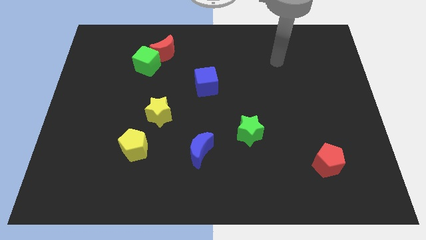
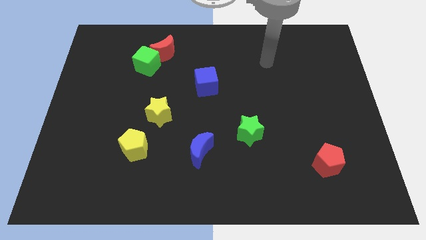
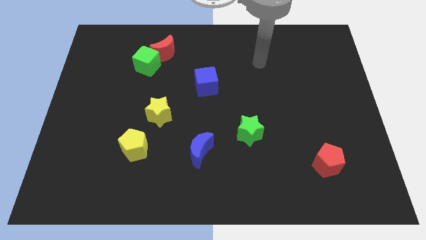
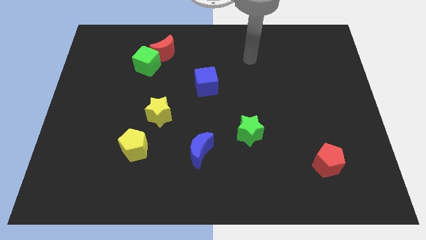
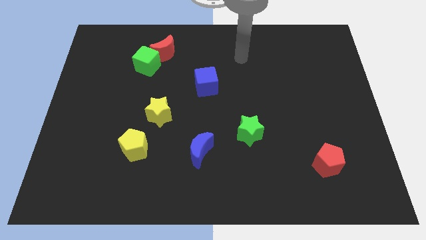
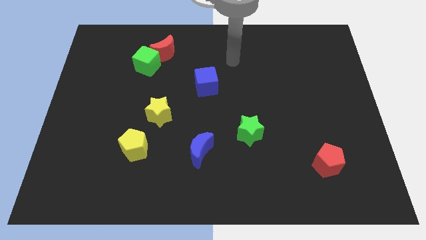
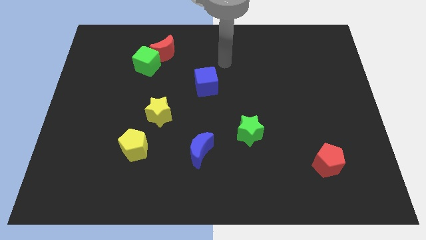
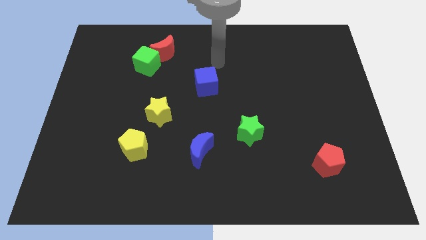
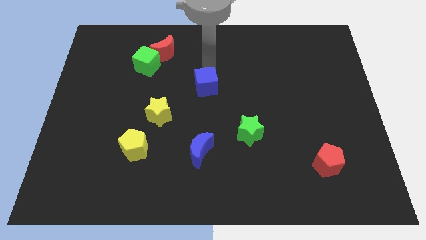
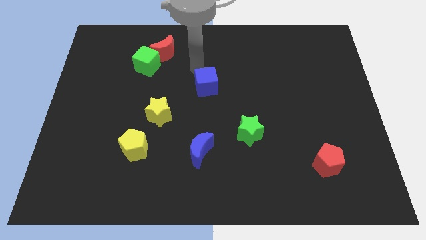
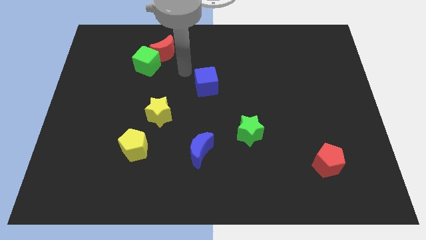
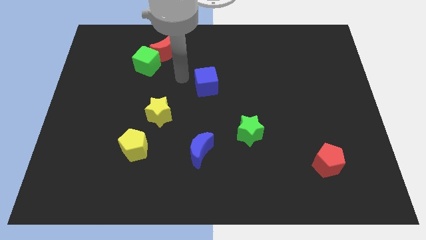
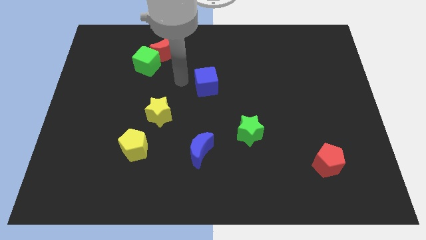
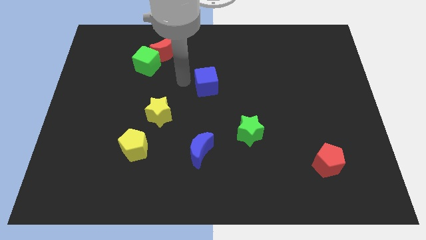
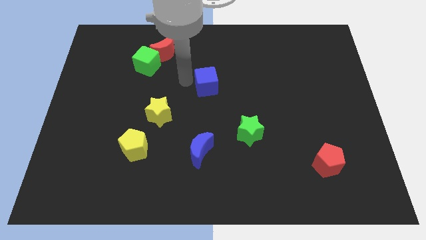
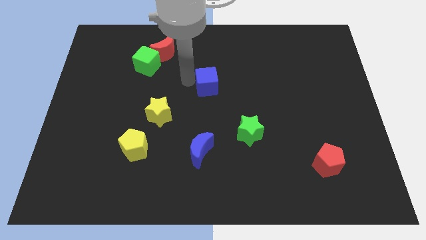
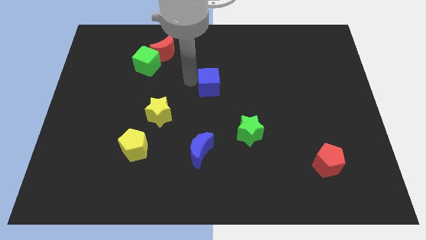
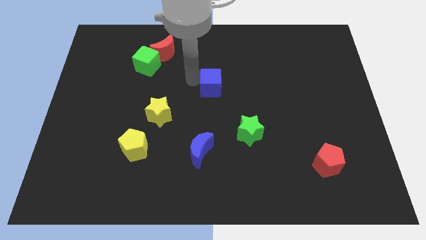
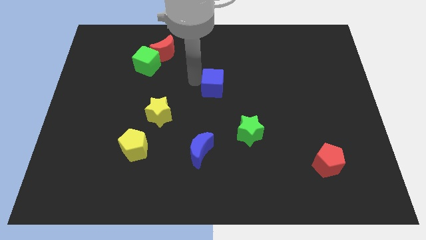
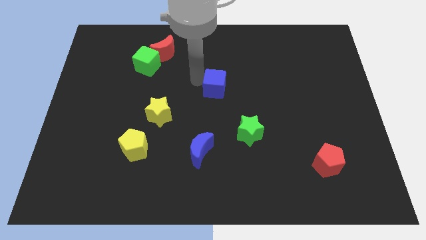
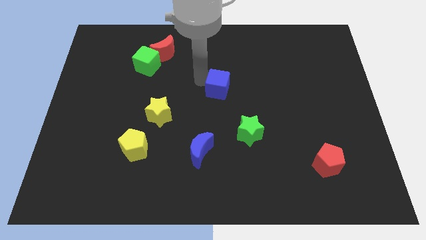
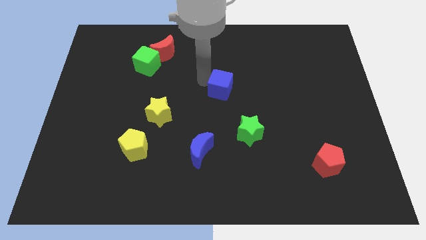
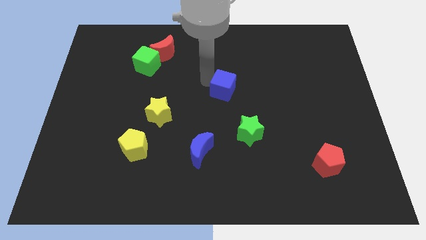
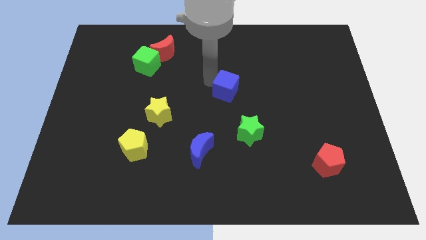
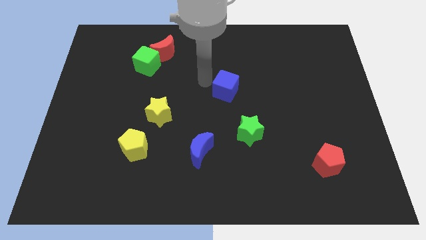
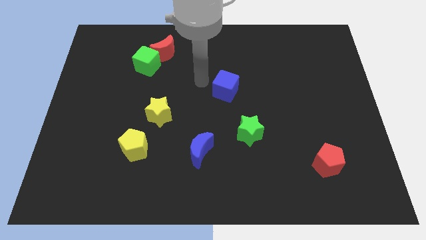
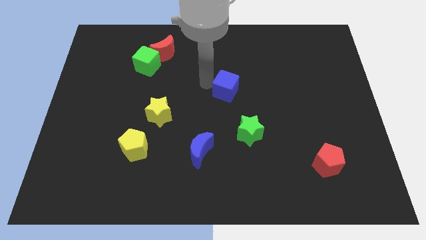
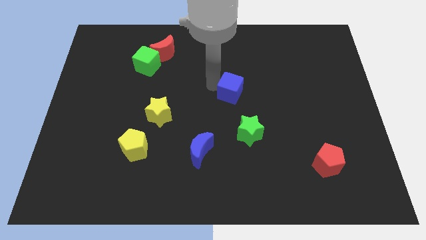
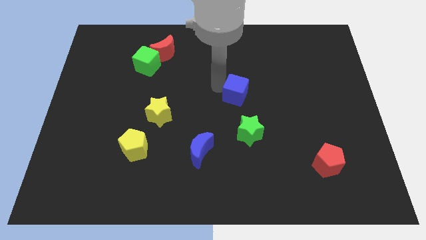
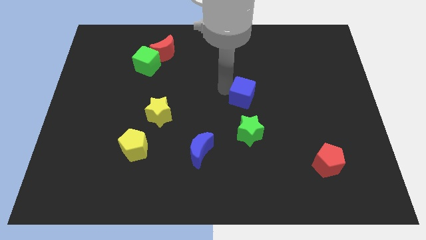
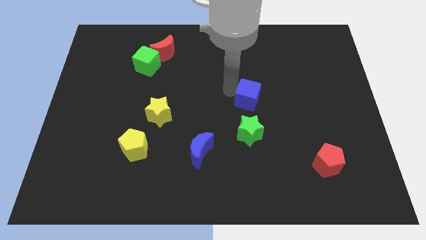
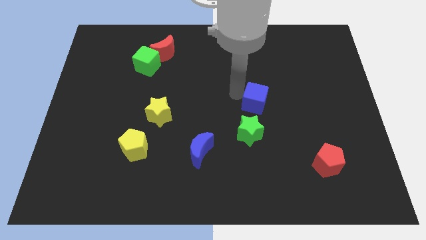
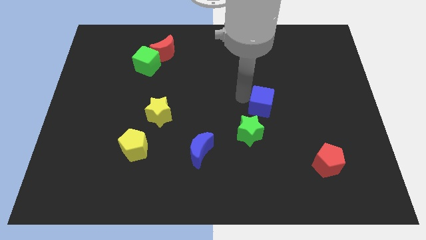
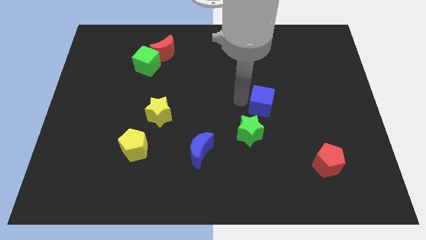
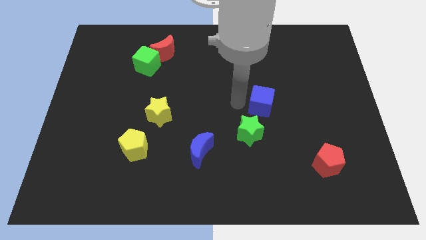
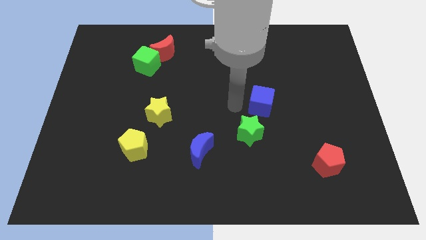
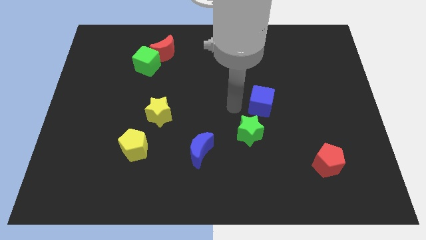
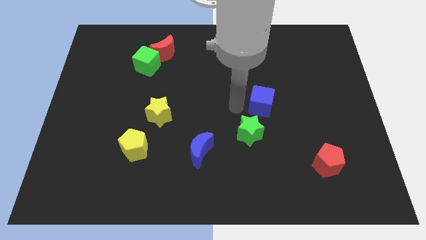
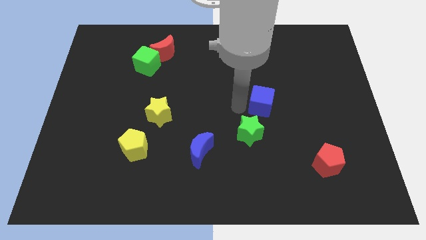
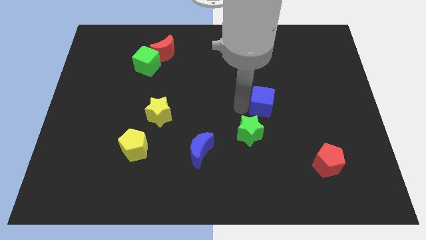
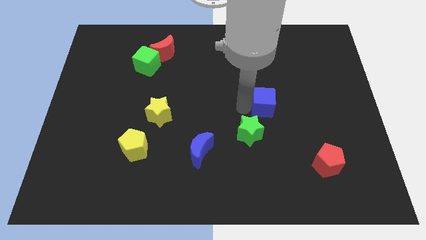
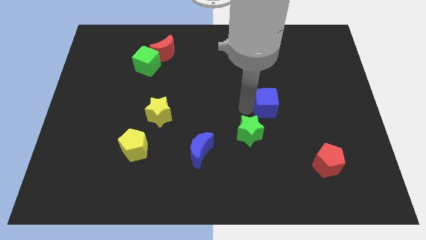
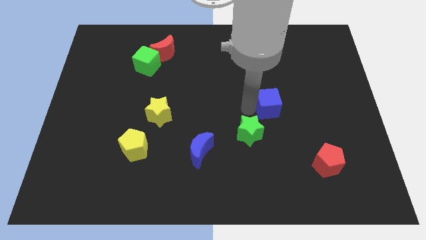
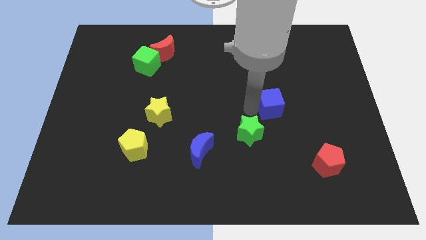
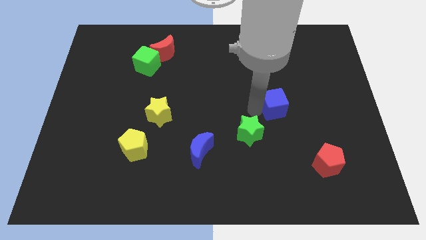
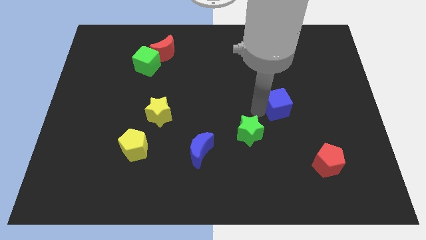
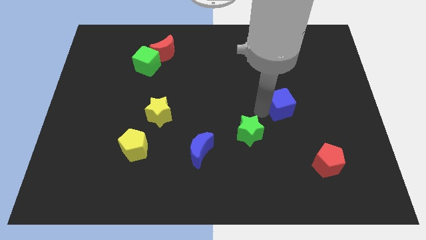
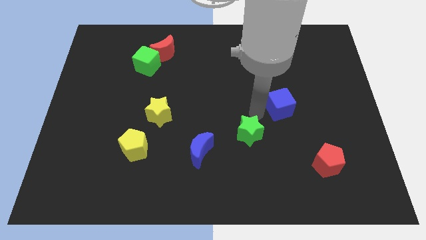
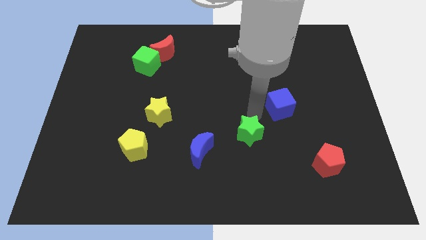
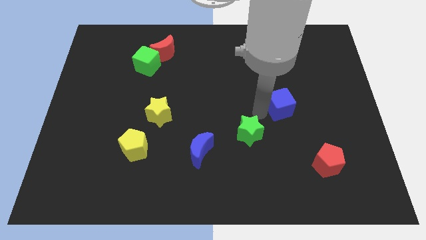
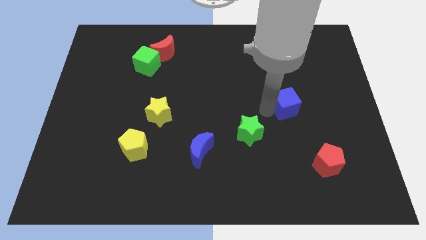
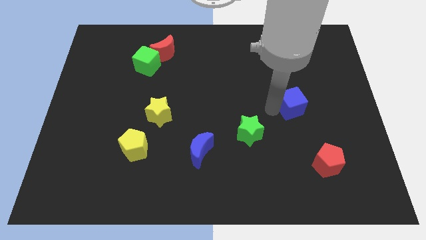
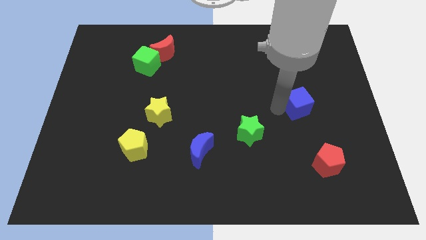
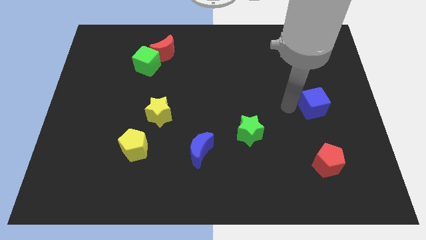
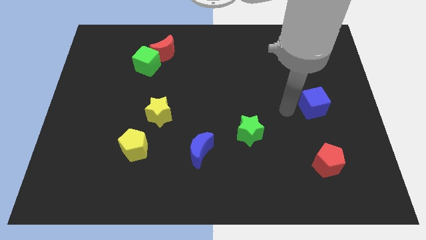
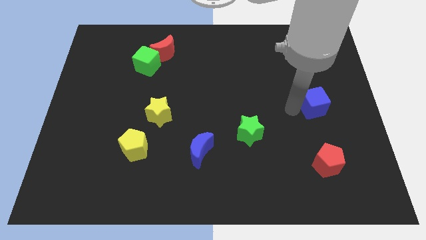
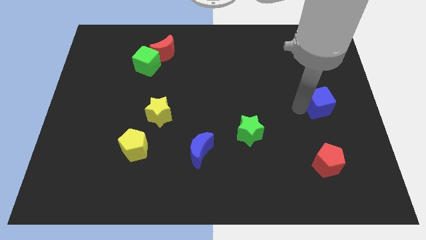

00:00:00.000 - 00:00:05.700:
put the blue cube to the right side of the board

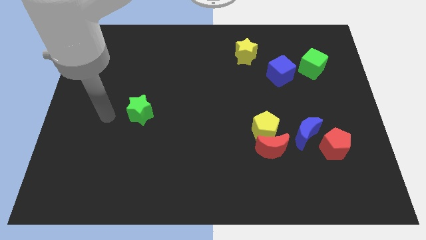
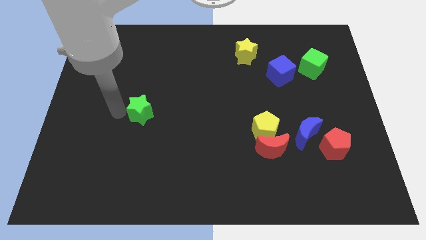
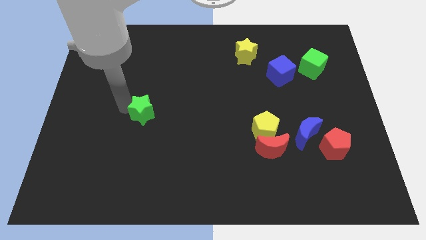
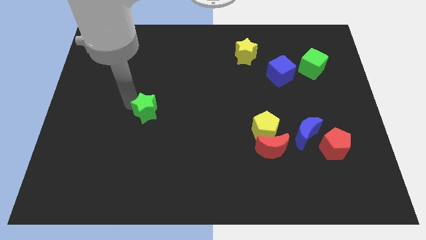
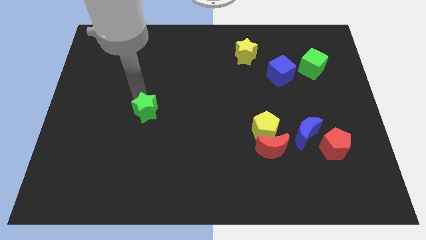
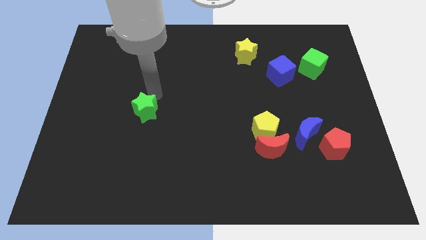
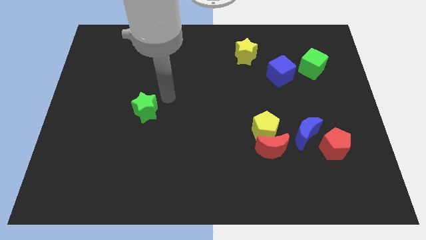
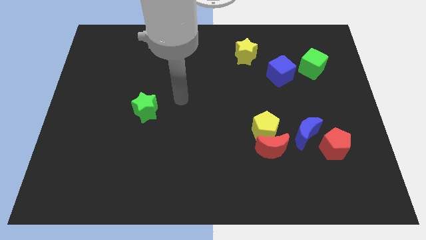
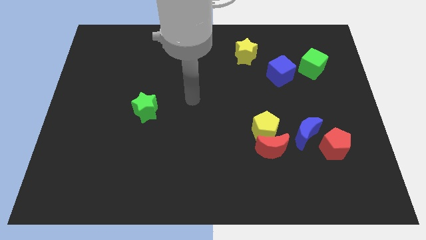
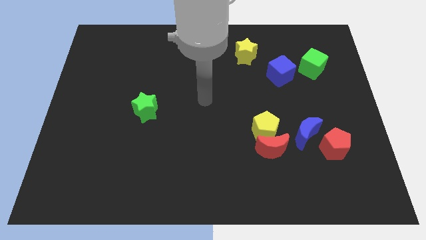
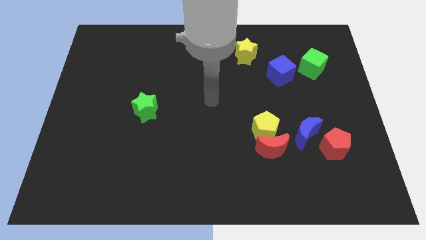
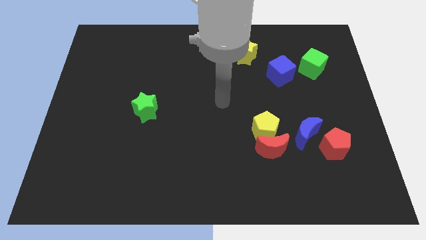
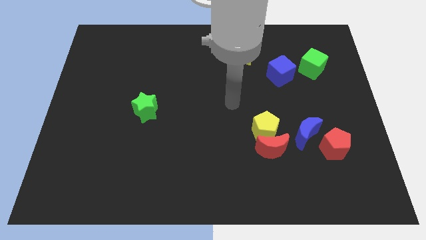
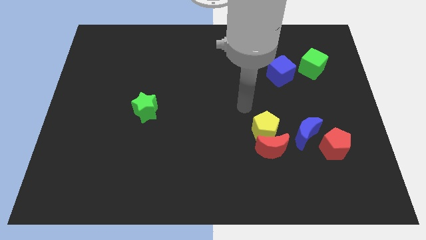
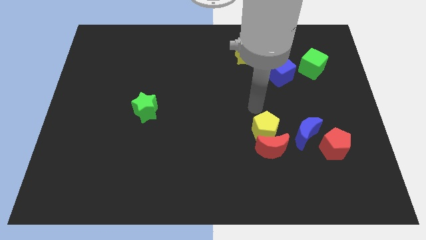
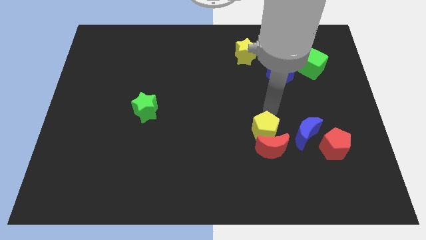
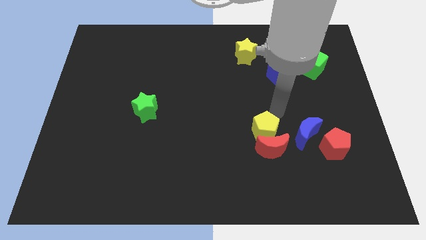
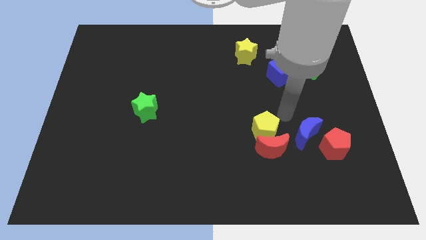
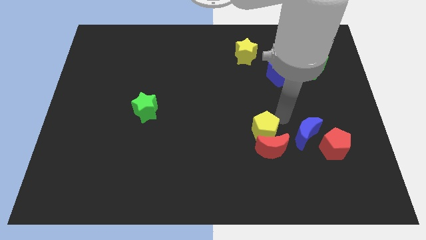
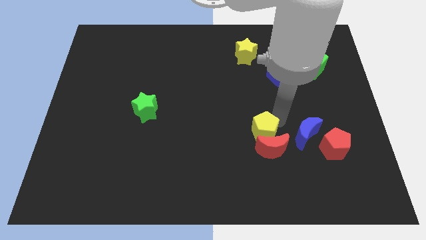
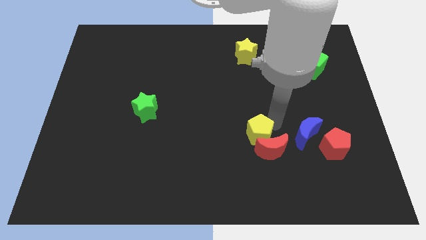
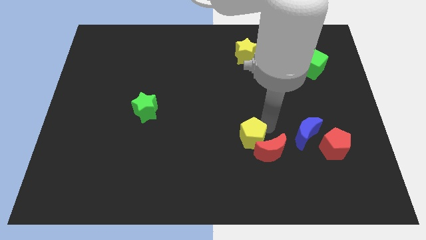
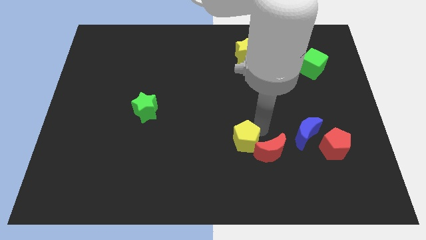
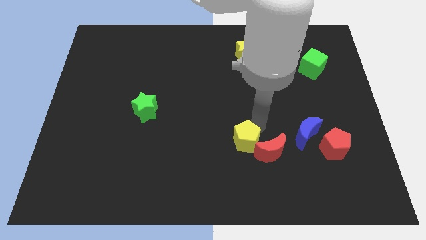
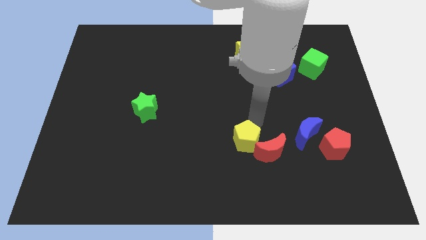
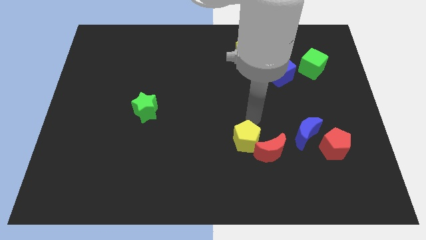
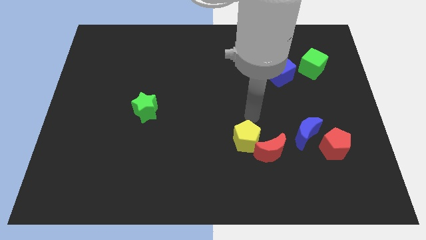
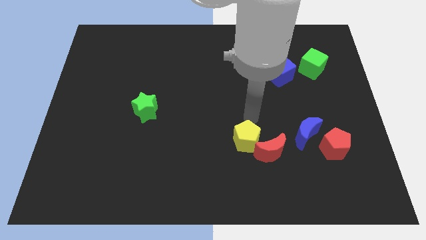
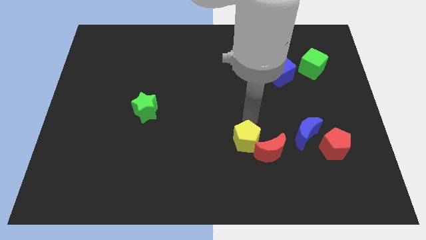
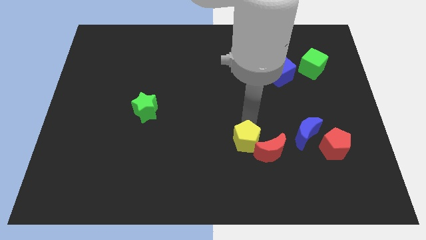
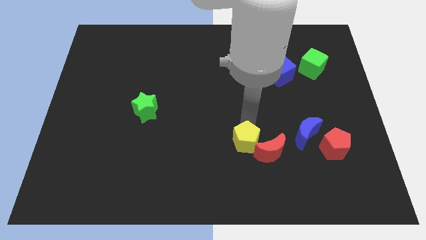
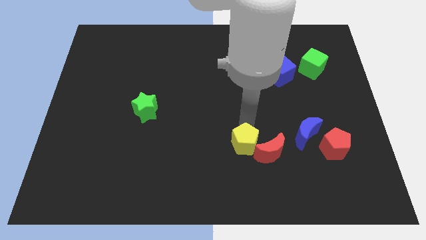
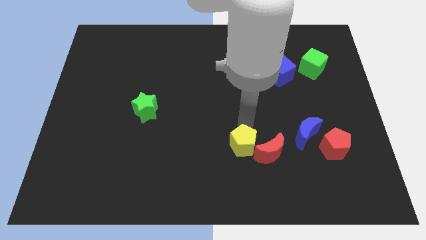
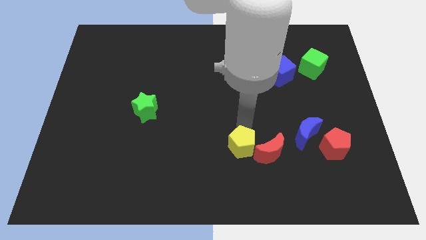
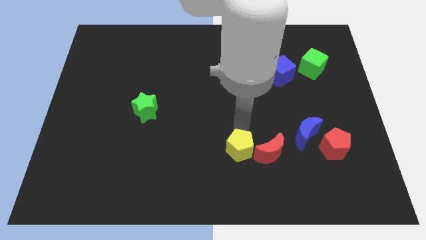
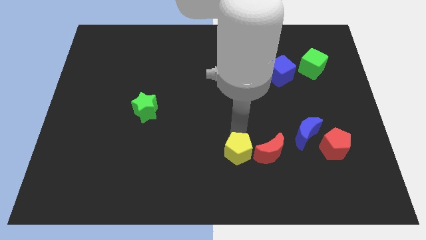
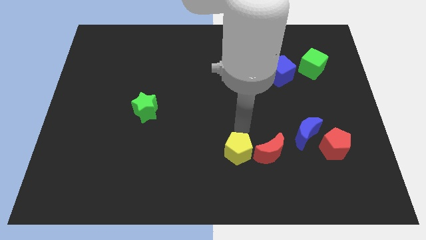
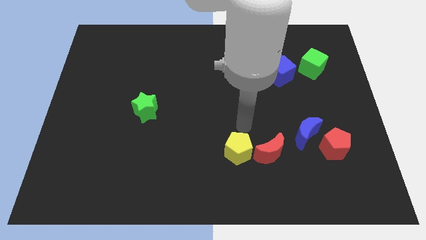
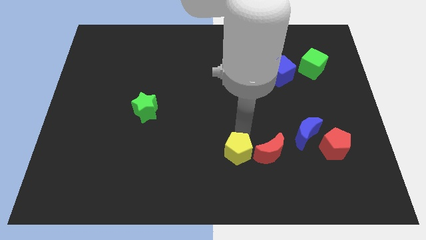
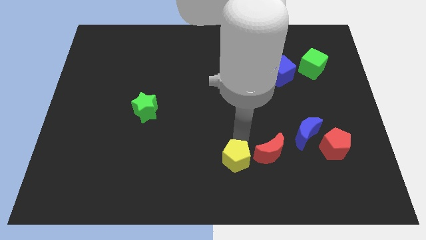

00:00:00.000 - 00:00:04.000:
move the yellow pentagon to the bottom side
